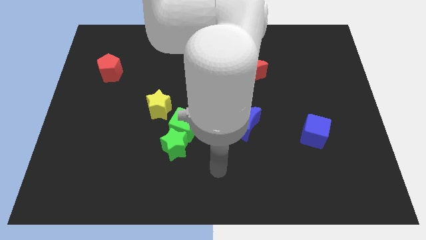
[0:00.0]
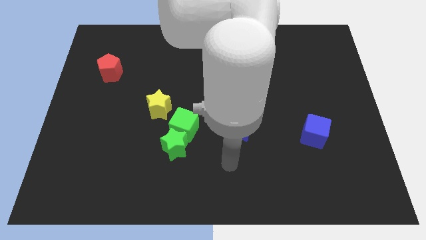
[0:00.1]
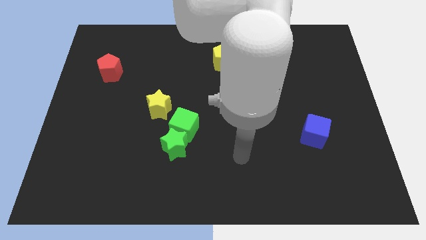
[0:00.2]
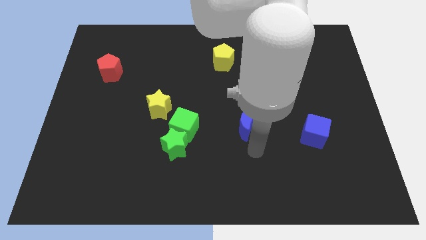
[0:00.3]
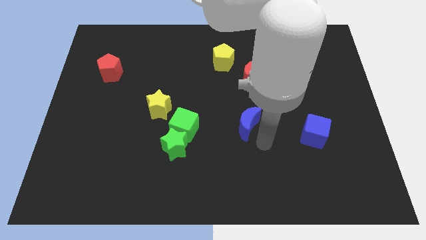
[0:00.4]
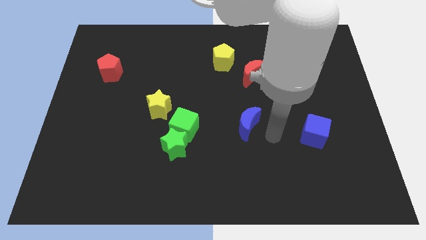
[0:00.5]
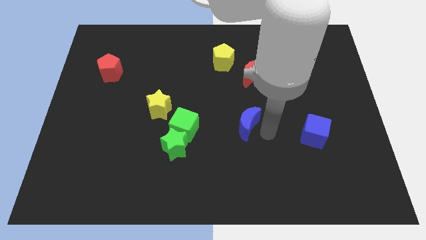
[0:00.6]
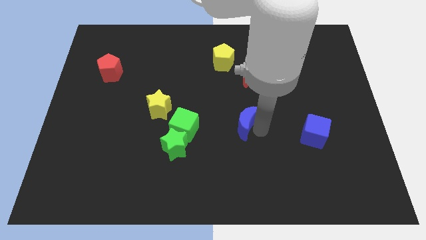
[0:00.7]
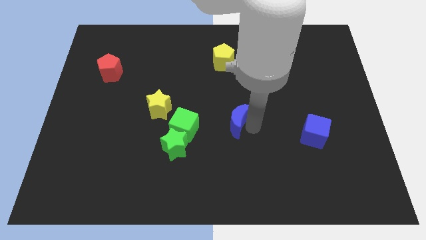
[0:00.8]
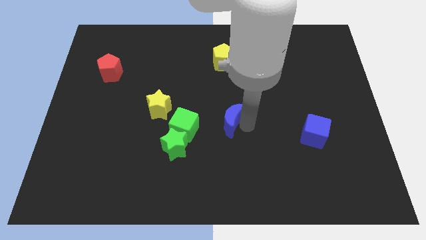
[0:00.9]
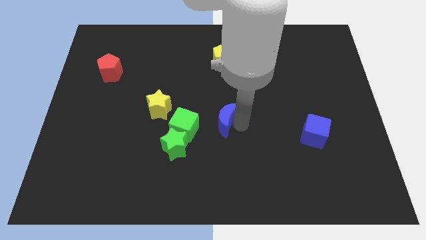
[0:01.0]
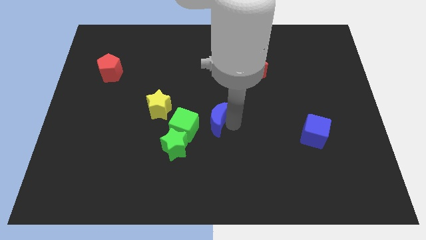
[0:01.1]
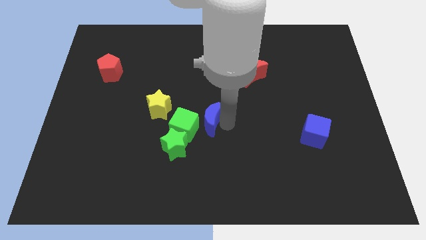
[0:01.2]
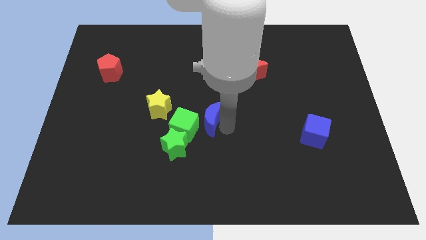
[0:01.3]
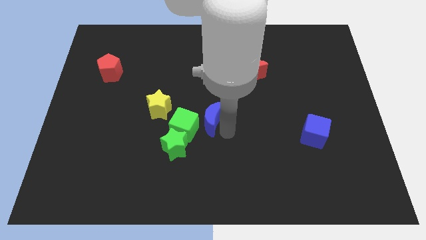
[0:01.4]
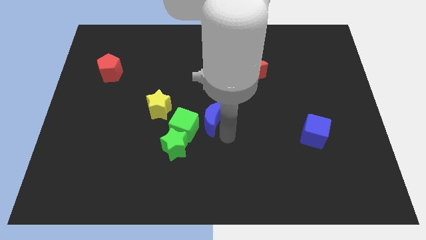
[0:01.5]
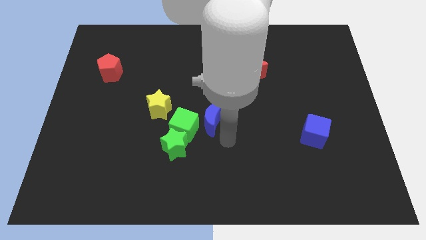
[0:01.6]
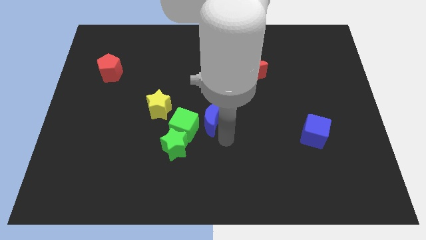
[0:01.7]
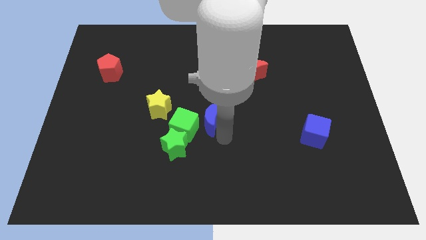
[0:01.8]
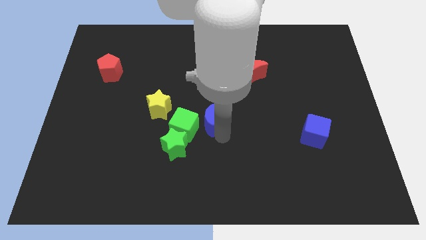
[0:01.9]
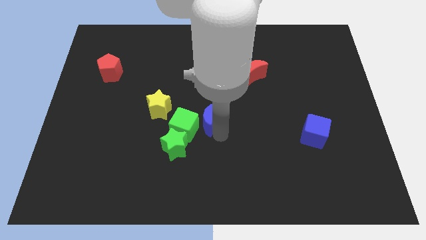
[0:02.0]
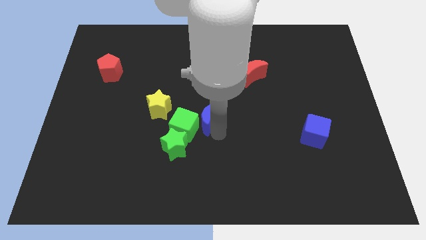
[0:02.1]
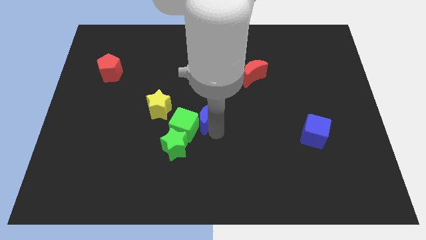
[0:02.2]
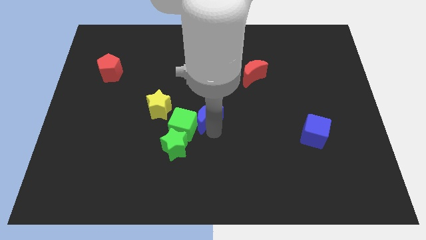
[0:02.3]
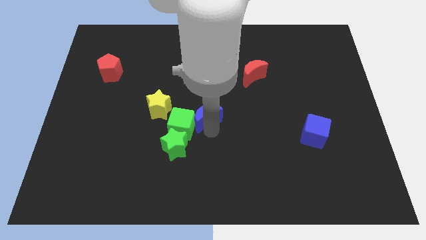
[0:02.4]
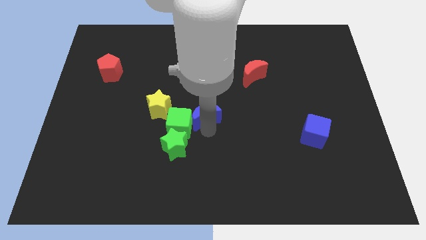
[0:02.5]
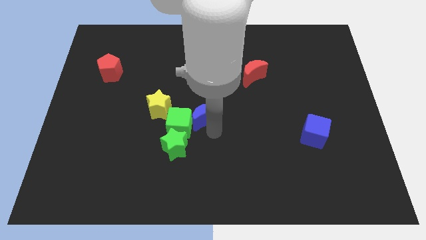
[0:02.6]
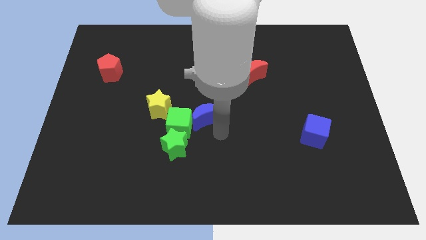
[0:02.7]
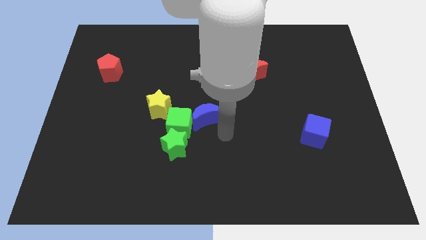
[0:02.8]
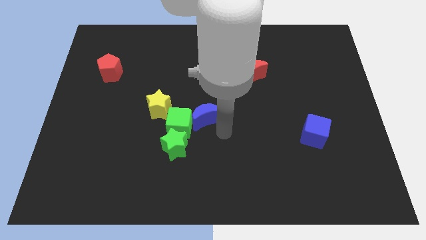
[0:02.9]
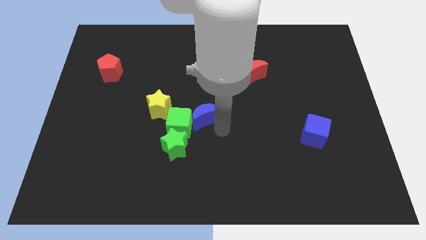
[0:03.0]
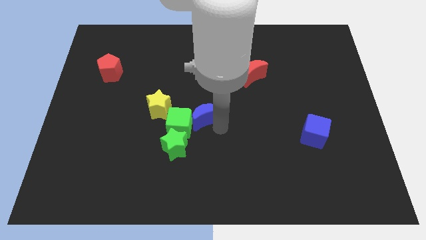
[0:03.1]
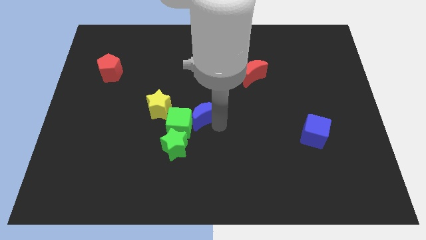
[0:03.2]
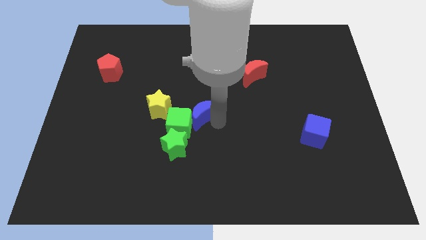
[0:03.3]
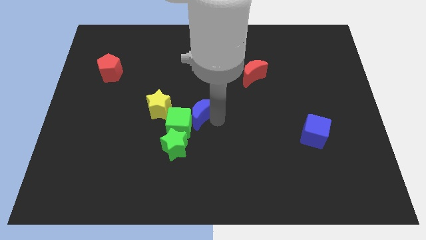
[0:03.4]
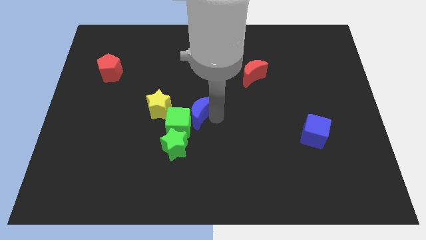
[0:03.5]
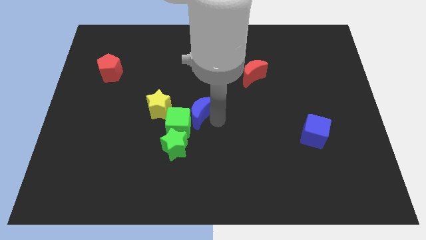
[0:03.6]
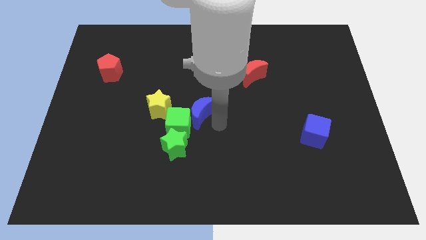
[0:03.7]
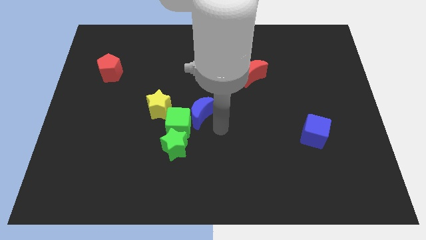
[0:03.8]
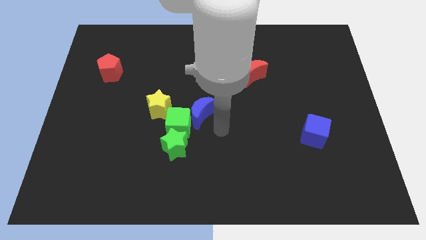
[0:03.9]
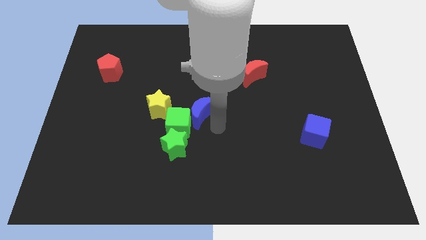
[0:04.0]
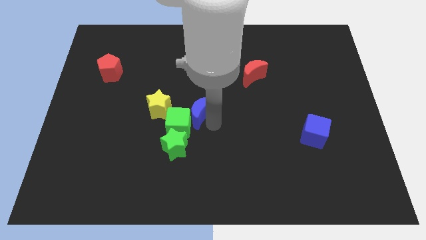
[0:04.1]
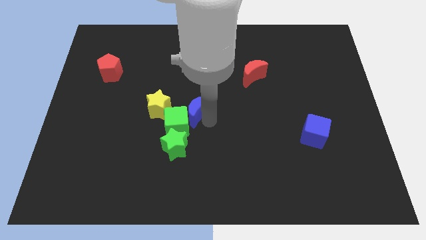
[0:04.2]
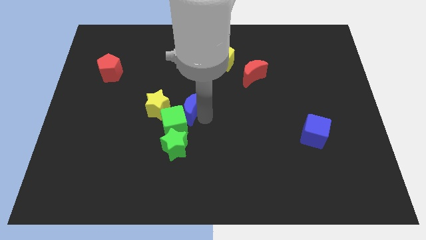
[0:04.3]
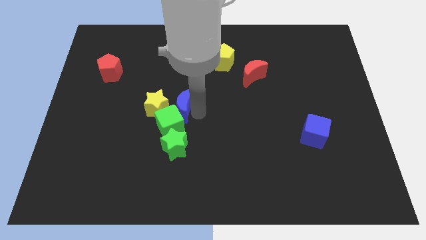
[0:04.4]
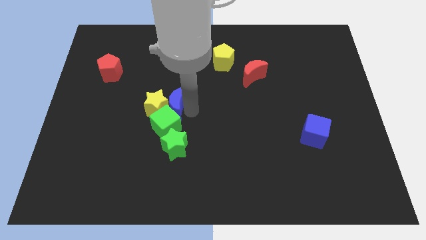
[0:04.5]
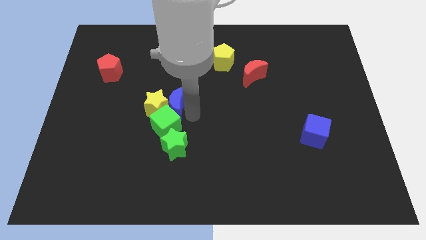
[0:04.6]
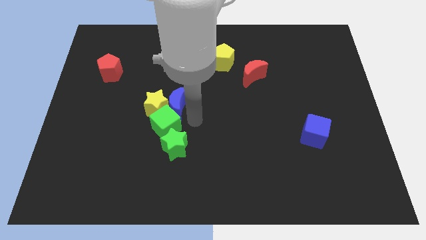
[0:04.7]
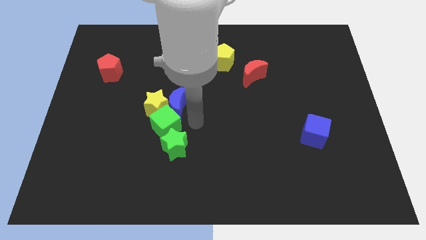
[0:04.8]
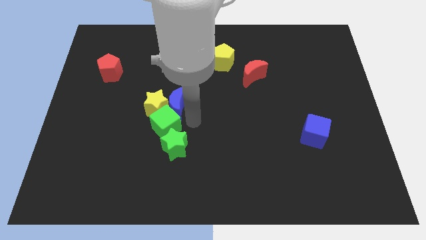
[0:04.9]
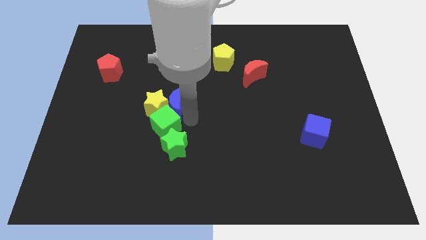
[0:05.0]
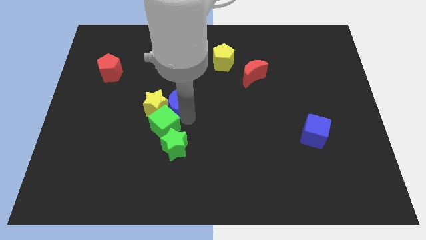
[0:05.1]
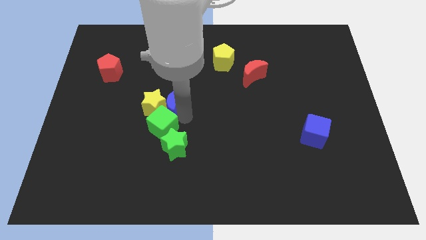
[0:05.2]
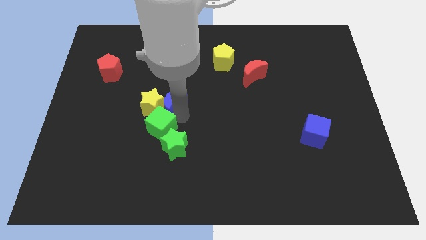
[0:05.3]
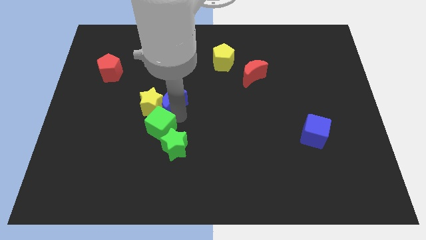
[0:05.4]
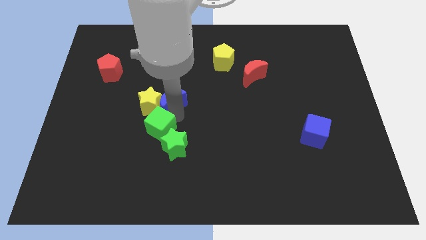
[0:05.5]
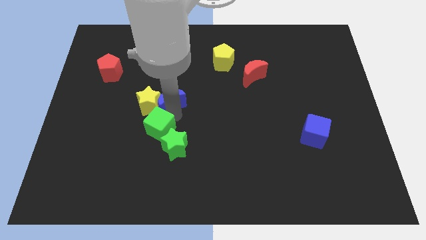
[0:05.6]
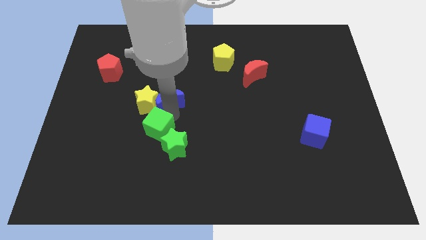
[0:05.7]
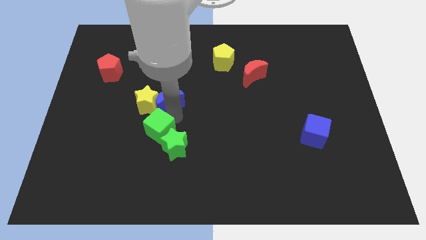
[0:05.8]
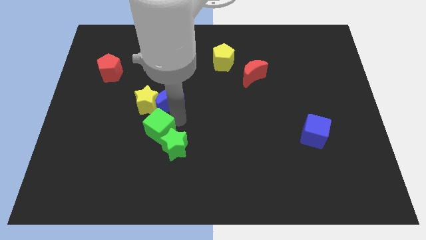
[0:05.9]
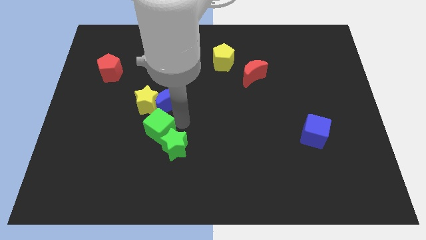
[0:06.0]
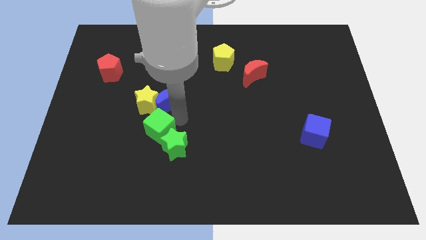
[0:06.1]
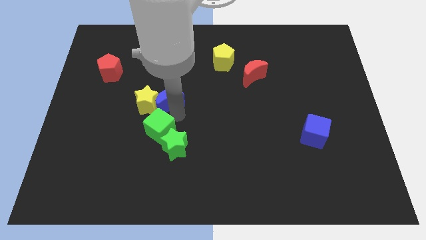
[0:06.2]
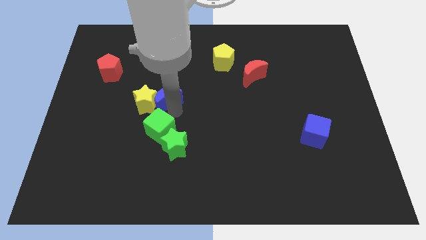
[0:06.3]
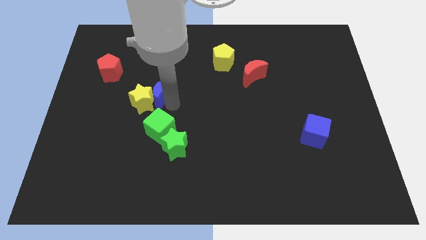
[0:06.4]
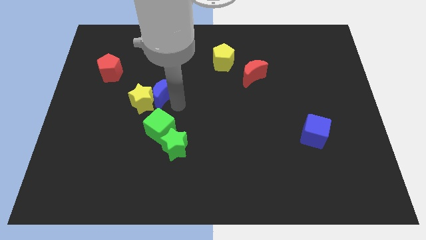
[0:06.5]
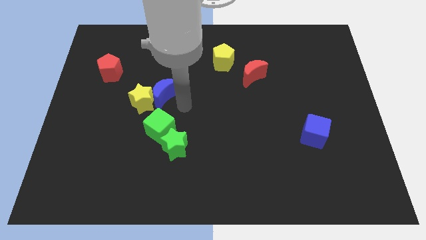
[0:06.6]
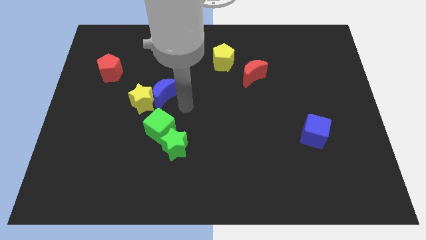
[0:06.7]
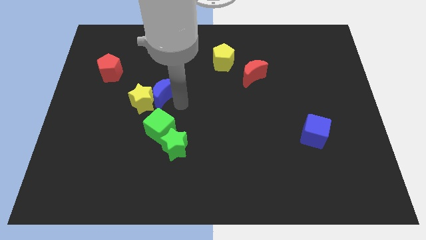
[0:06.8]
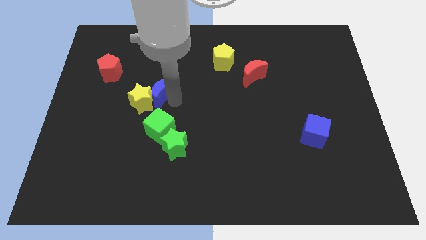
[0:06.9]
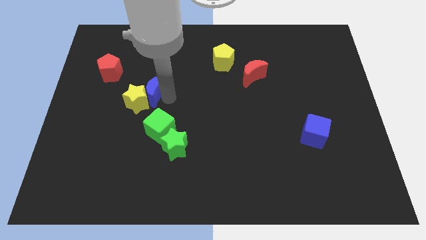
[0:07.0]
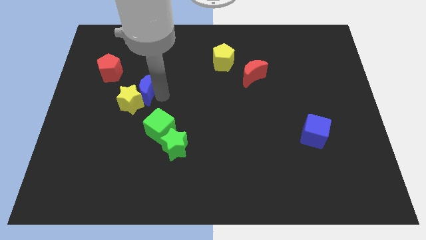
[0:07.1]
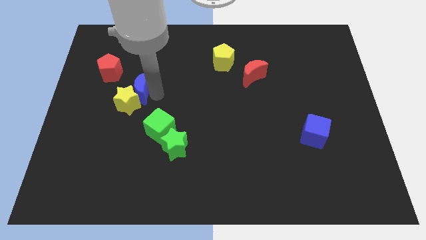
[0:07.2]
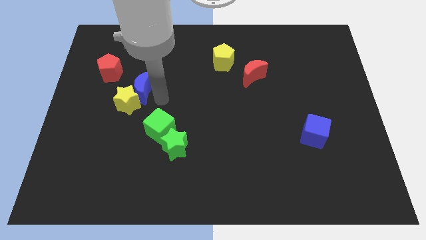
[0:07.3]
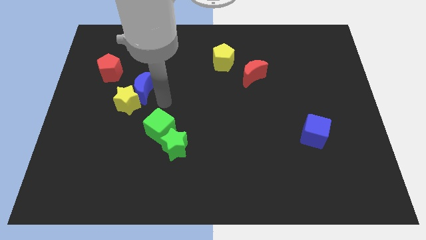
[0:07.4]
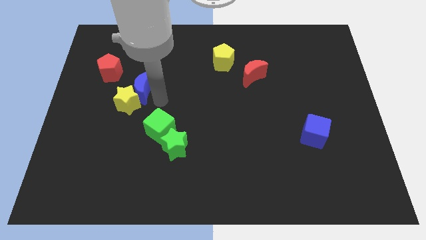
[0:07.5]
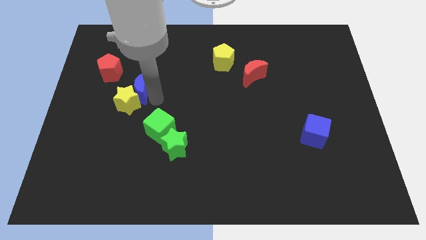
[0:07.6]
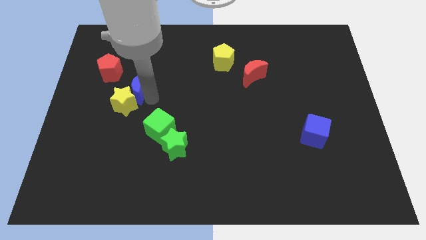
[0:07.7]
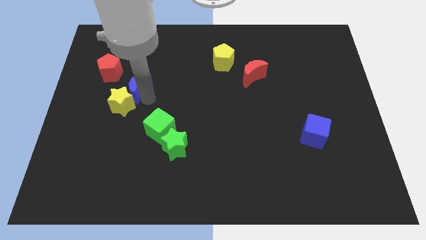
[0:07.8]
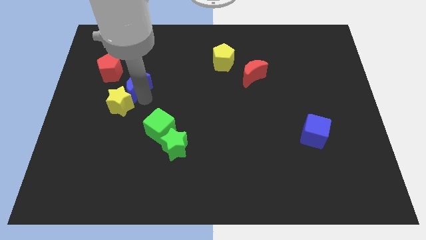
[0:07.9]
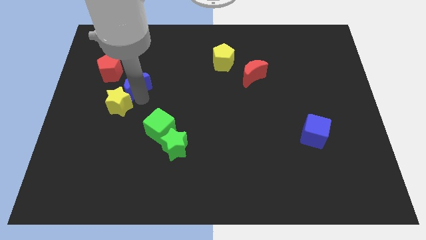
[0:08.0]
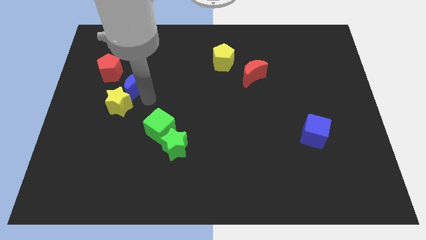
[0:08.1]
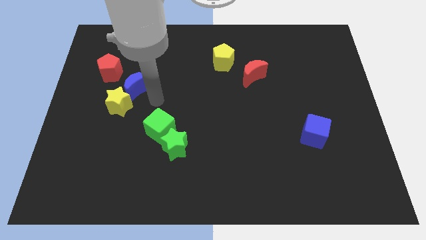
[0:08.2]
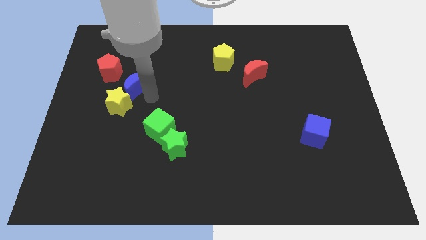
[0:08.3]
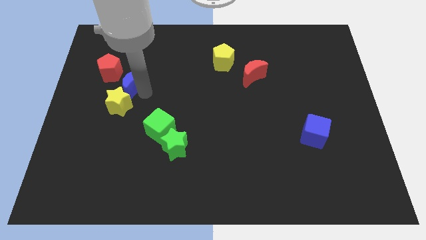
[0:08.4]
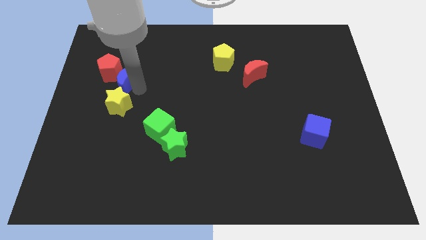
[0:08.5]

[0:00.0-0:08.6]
move the blue moon towards the red pentagon
